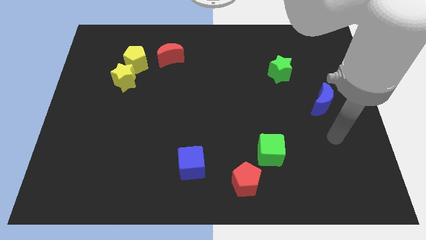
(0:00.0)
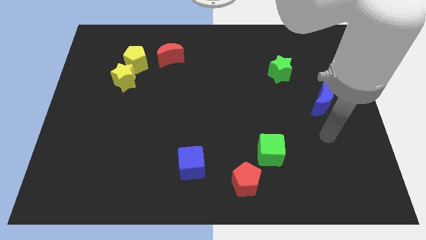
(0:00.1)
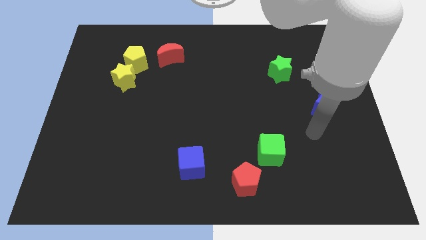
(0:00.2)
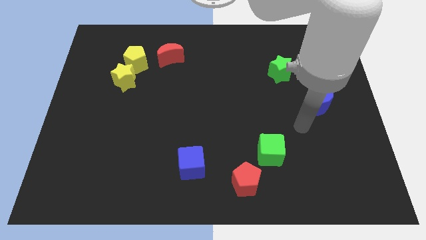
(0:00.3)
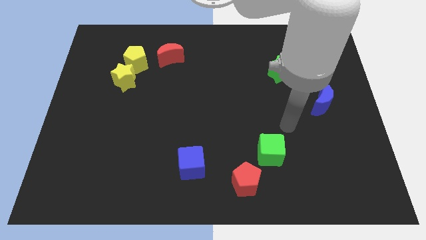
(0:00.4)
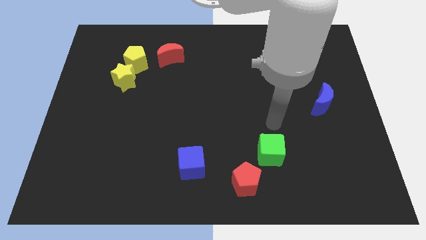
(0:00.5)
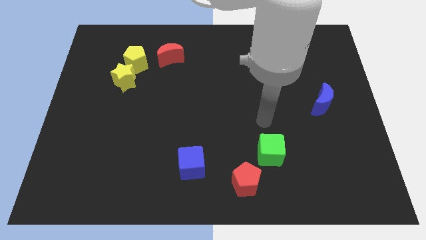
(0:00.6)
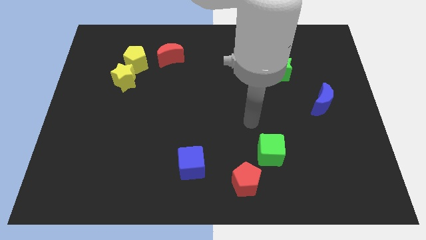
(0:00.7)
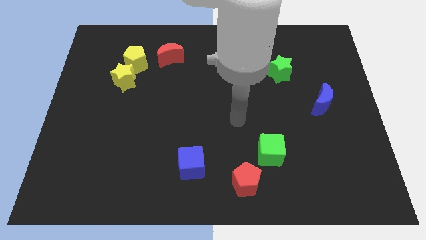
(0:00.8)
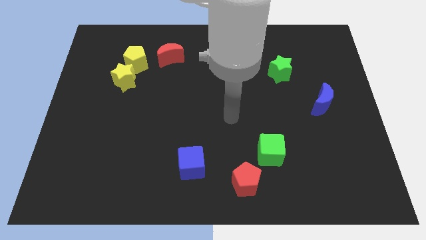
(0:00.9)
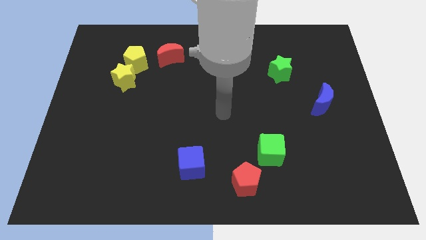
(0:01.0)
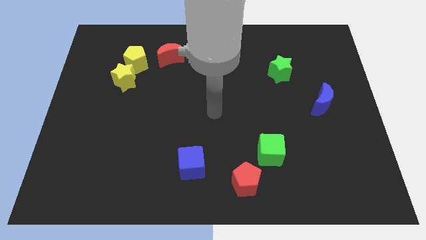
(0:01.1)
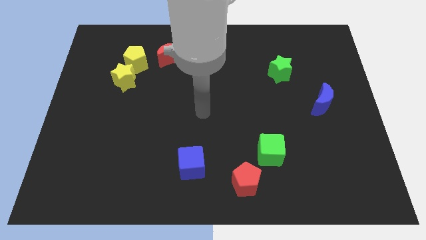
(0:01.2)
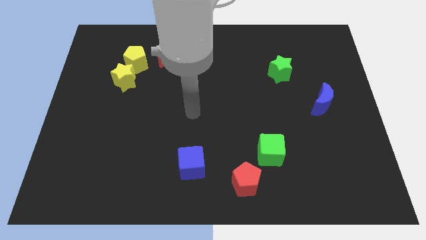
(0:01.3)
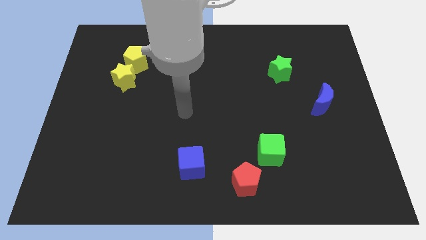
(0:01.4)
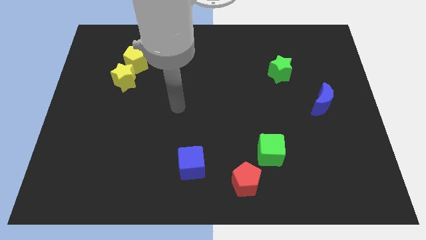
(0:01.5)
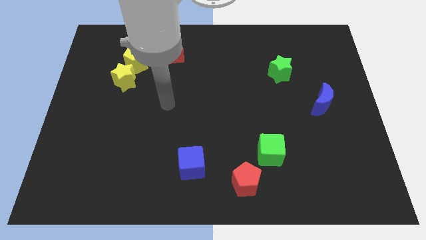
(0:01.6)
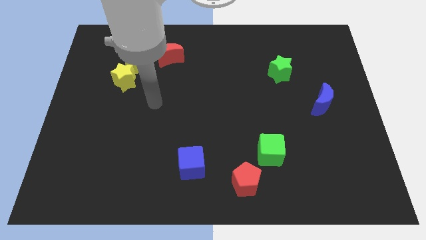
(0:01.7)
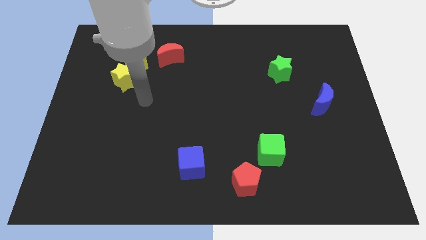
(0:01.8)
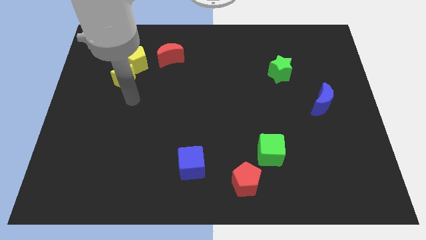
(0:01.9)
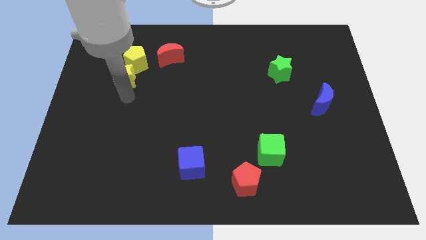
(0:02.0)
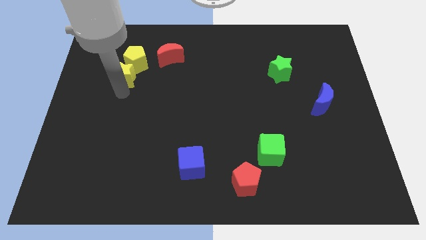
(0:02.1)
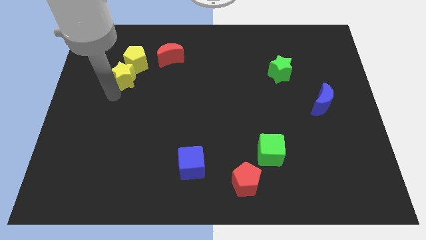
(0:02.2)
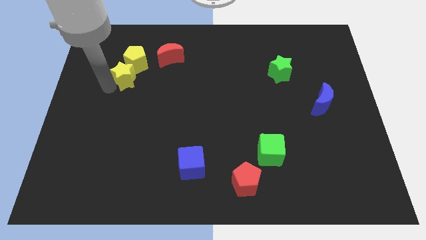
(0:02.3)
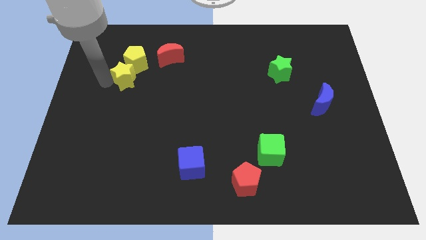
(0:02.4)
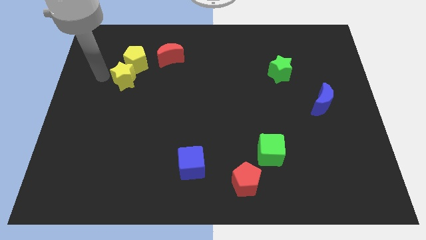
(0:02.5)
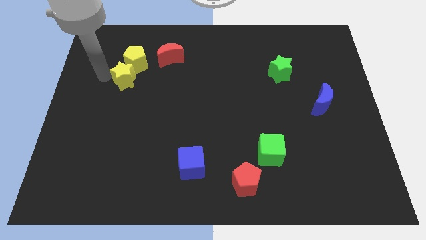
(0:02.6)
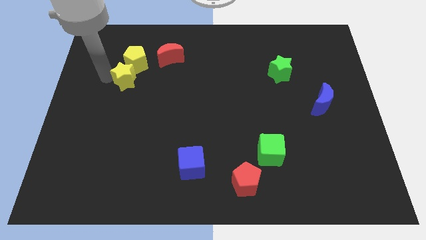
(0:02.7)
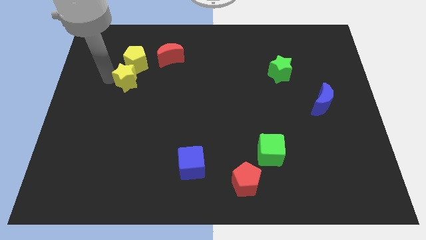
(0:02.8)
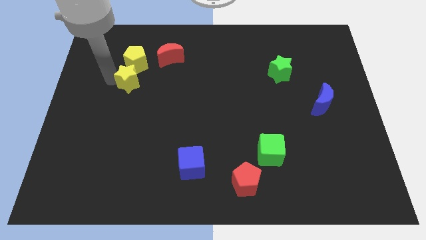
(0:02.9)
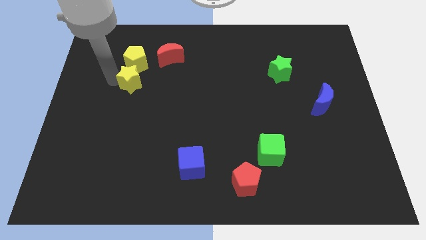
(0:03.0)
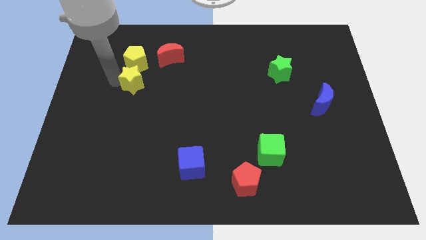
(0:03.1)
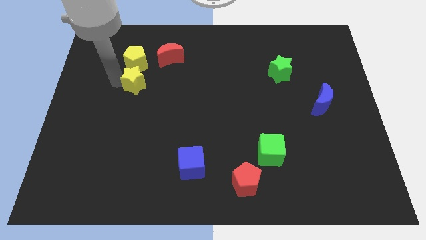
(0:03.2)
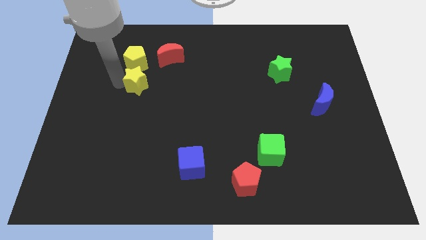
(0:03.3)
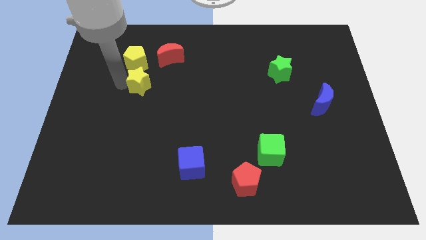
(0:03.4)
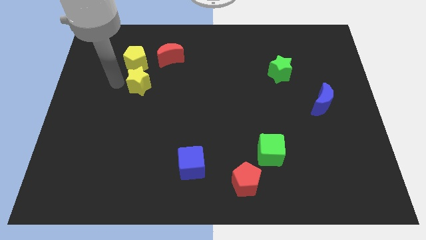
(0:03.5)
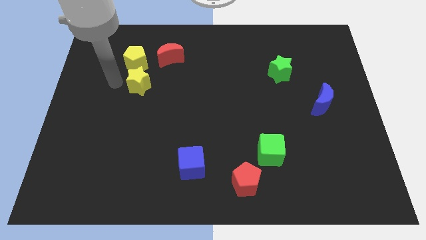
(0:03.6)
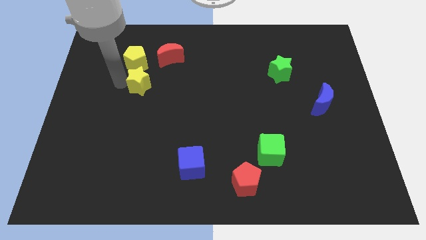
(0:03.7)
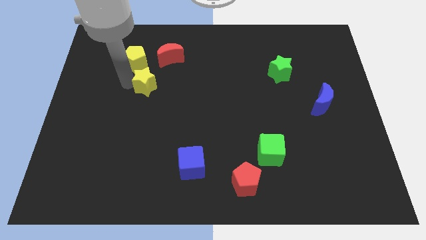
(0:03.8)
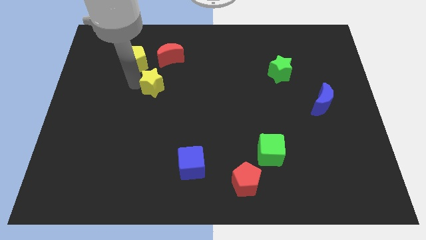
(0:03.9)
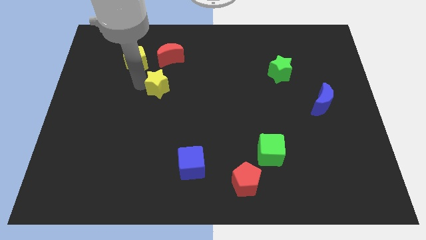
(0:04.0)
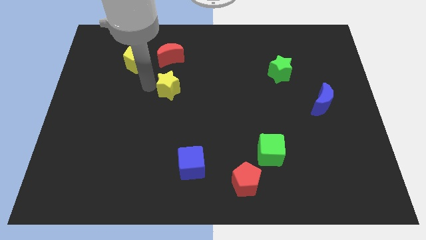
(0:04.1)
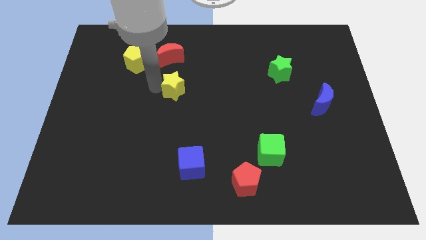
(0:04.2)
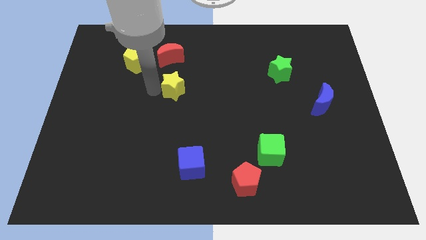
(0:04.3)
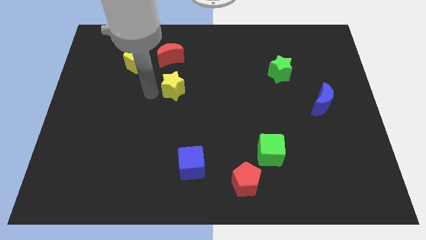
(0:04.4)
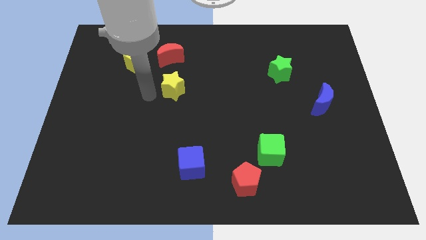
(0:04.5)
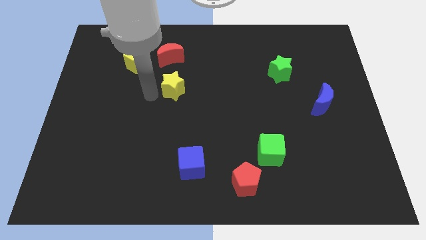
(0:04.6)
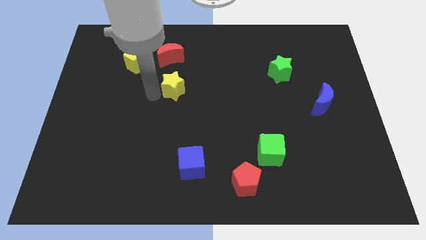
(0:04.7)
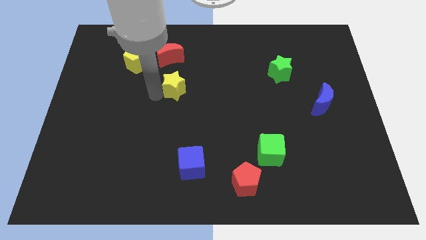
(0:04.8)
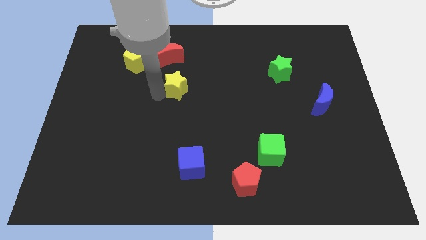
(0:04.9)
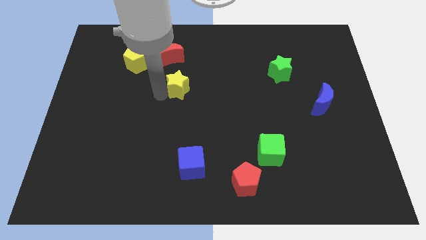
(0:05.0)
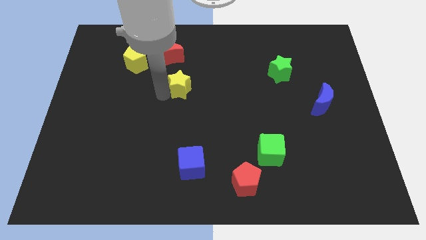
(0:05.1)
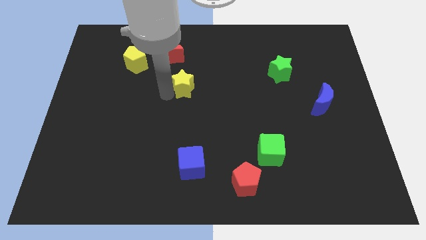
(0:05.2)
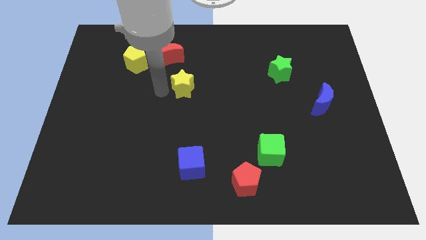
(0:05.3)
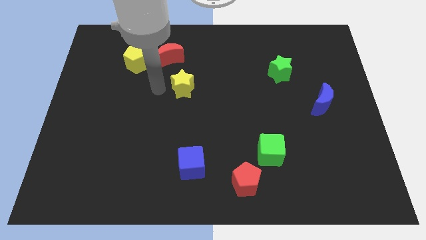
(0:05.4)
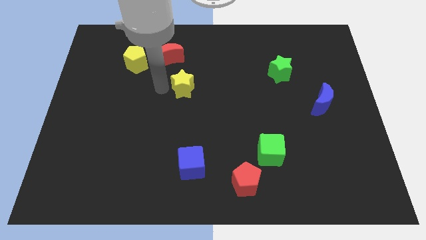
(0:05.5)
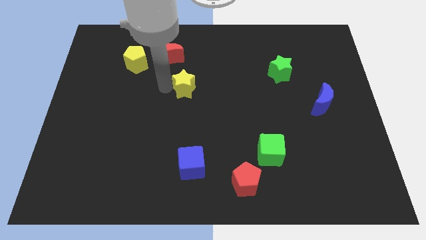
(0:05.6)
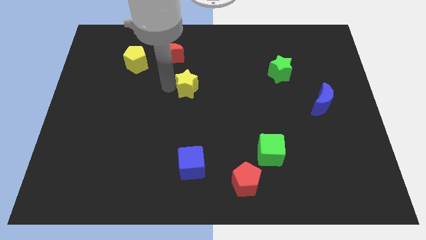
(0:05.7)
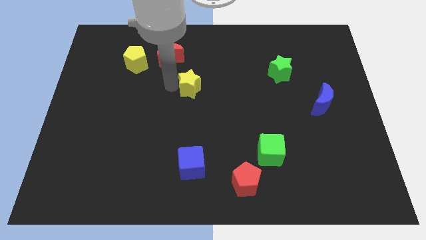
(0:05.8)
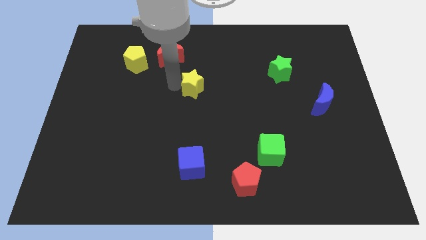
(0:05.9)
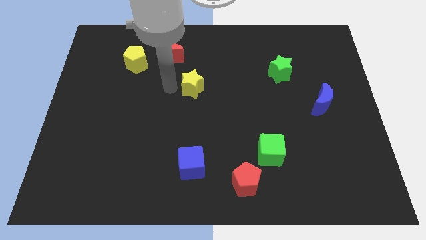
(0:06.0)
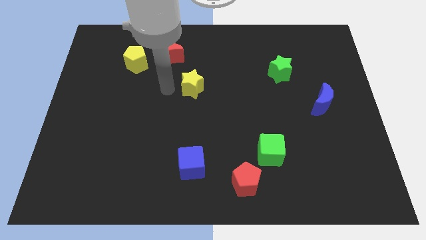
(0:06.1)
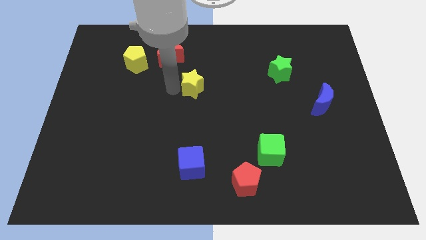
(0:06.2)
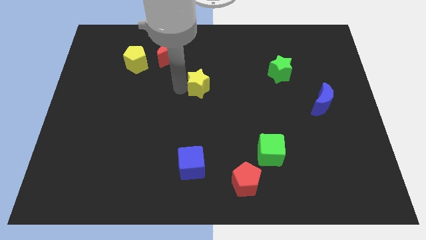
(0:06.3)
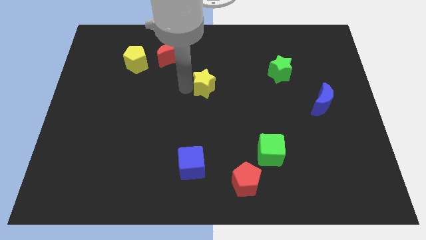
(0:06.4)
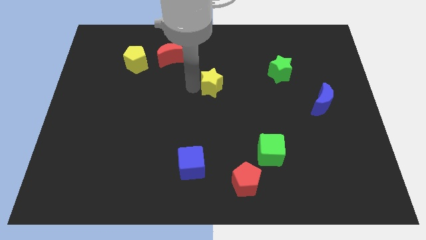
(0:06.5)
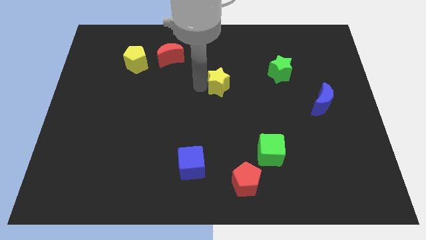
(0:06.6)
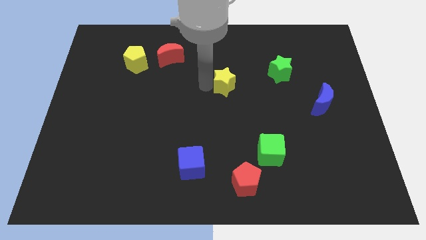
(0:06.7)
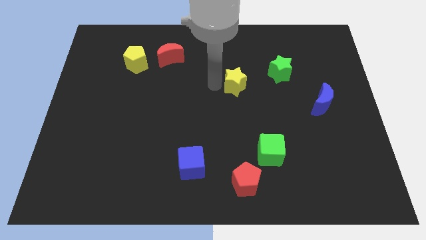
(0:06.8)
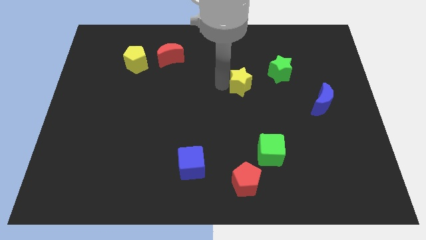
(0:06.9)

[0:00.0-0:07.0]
push the yellow star diagonally down and to the left of the green star

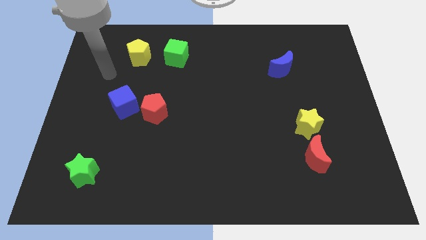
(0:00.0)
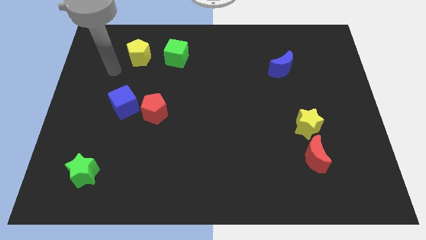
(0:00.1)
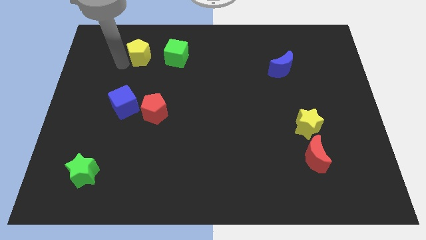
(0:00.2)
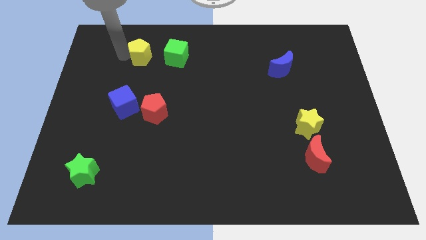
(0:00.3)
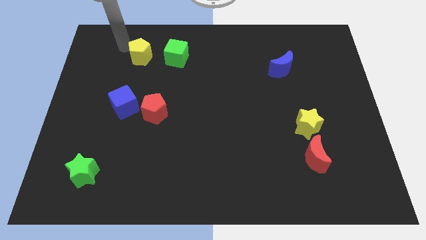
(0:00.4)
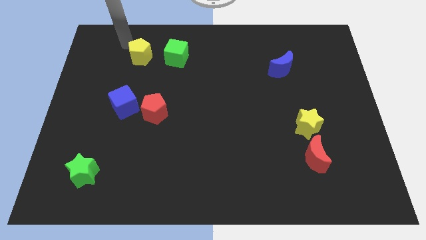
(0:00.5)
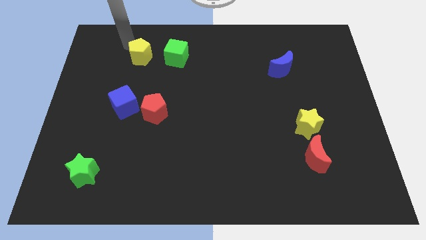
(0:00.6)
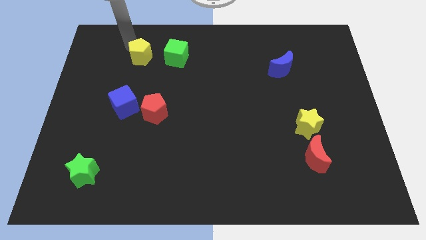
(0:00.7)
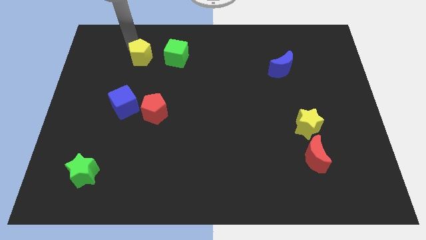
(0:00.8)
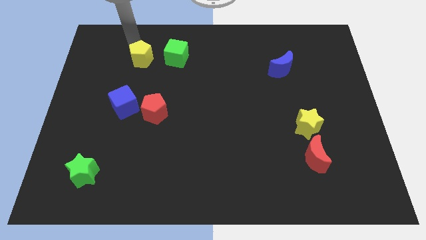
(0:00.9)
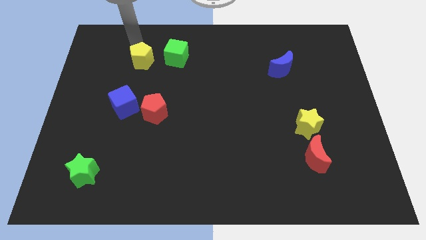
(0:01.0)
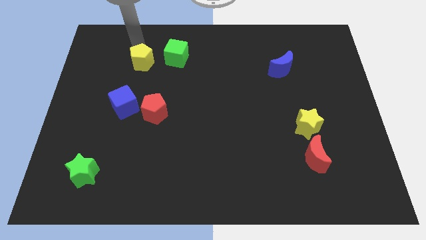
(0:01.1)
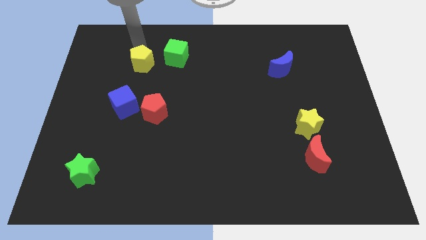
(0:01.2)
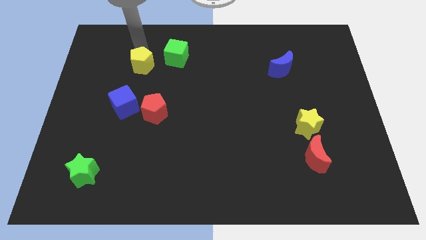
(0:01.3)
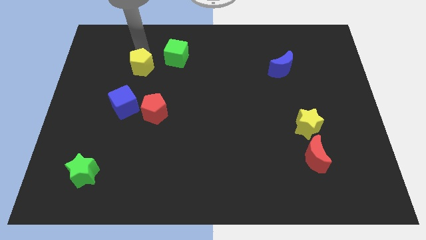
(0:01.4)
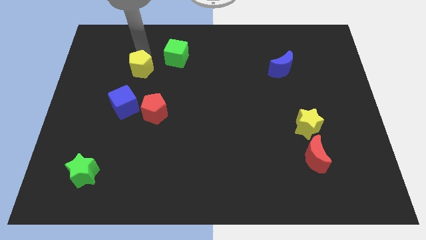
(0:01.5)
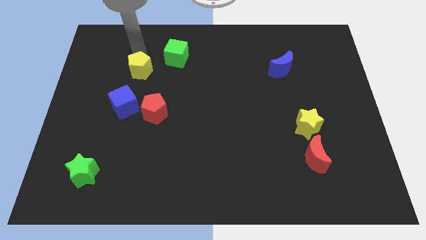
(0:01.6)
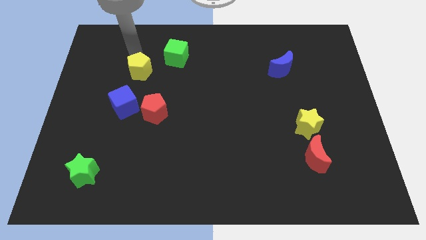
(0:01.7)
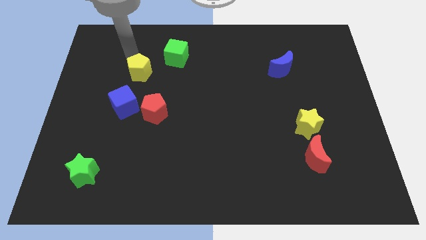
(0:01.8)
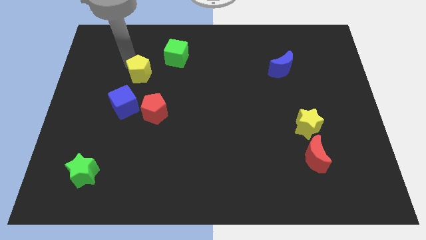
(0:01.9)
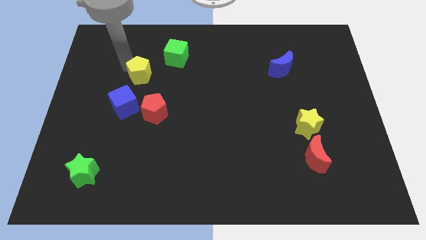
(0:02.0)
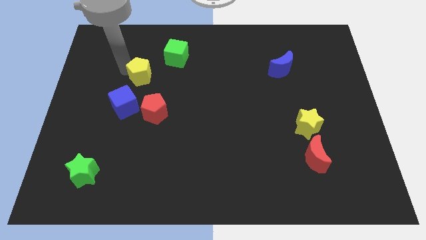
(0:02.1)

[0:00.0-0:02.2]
move the yellow pentagon to the top of the red pentagon
